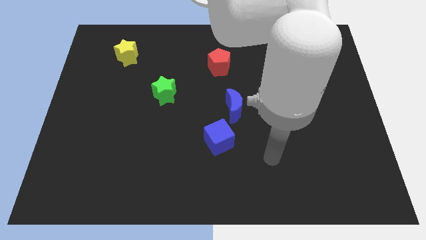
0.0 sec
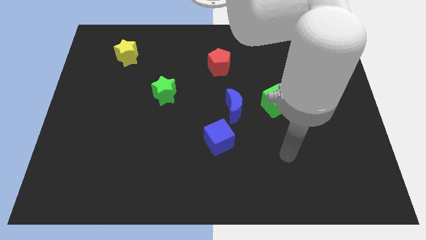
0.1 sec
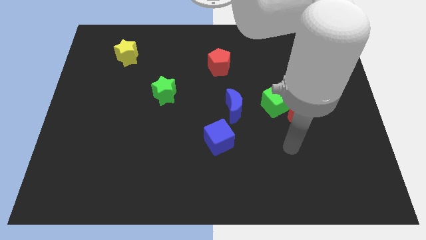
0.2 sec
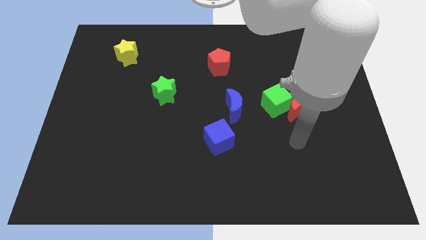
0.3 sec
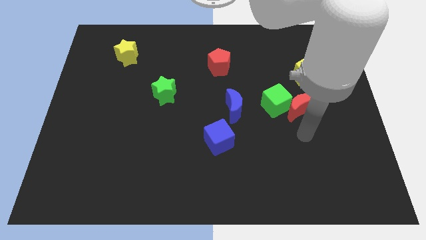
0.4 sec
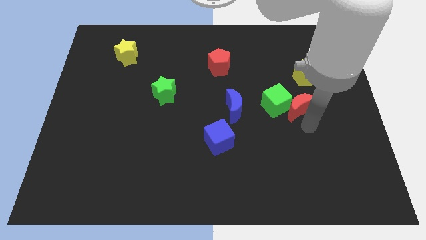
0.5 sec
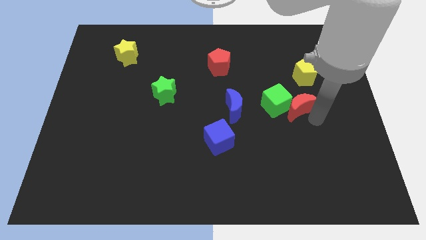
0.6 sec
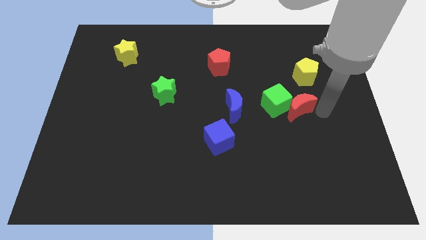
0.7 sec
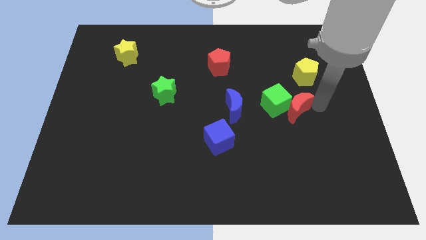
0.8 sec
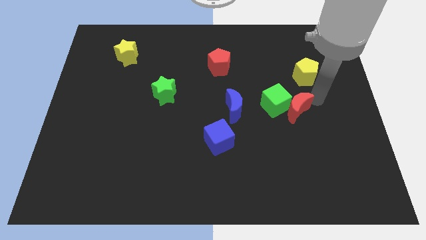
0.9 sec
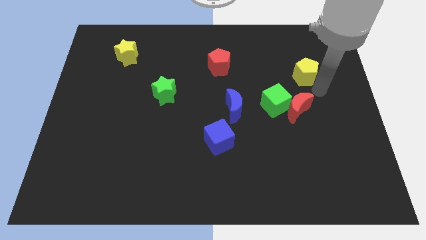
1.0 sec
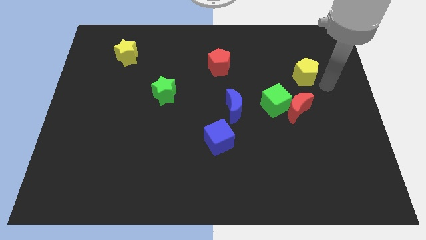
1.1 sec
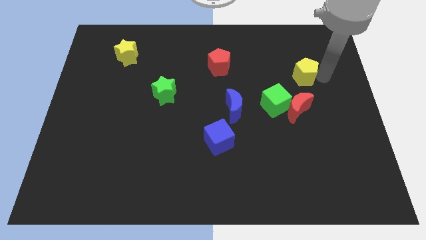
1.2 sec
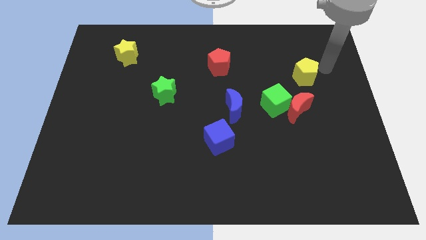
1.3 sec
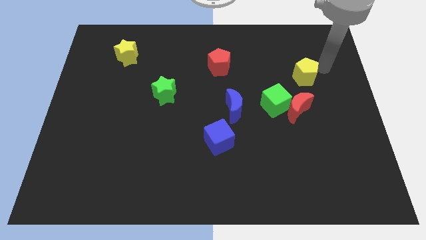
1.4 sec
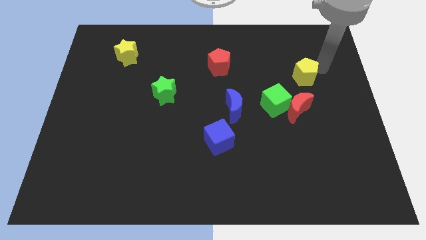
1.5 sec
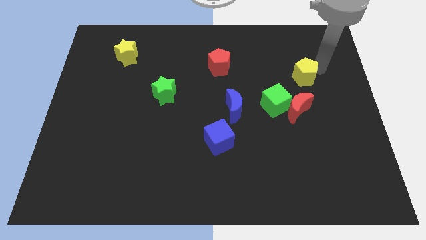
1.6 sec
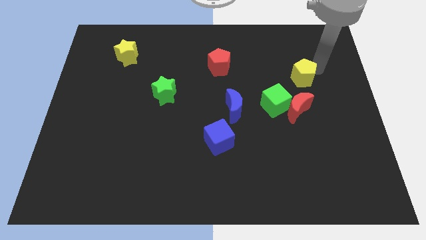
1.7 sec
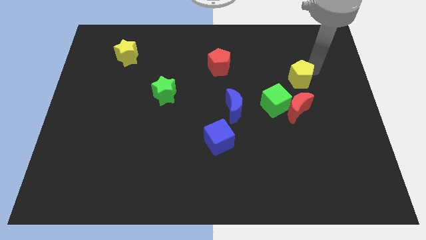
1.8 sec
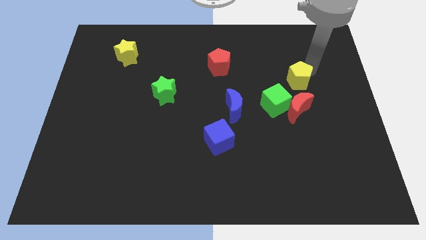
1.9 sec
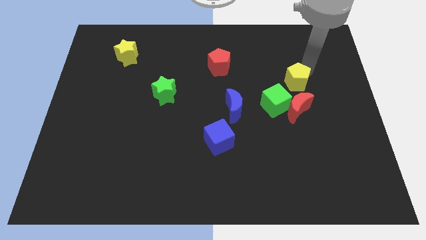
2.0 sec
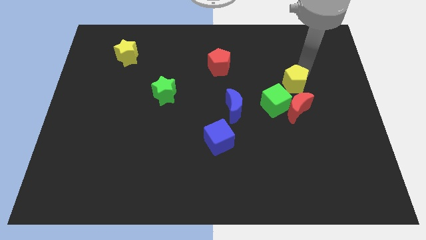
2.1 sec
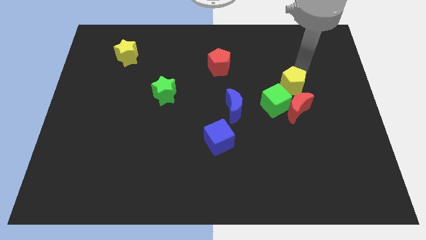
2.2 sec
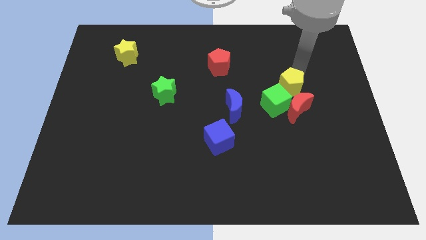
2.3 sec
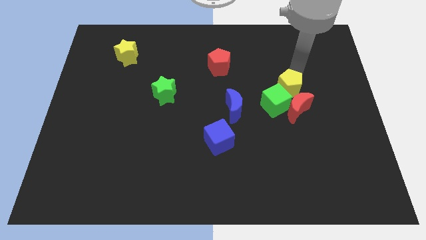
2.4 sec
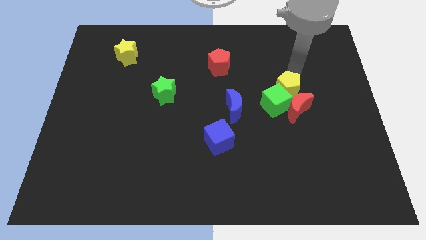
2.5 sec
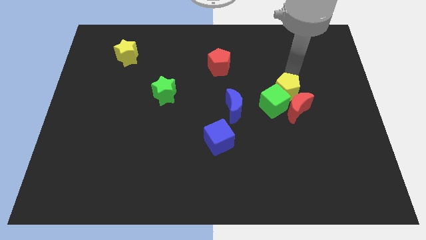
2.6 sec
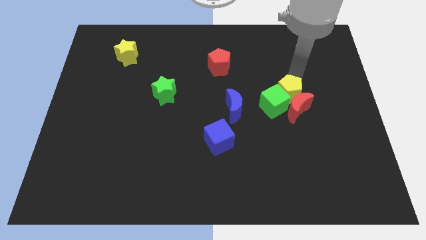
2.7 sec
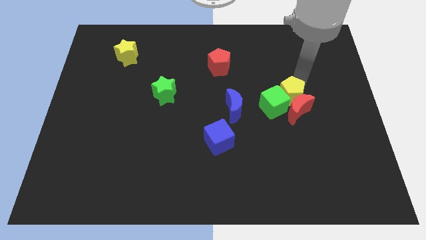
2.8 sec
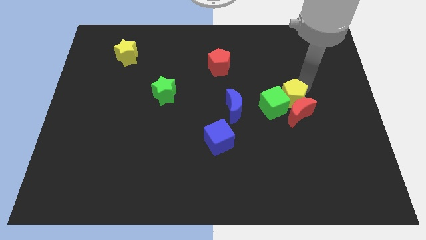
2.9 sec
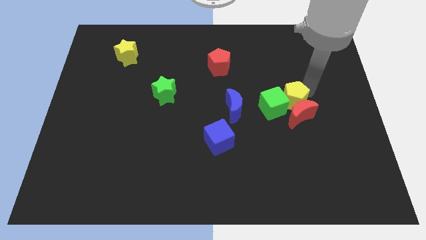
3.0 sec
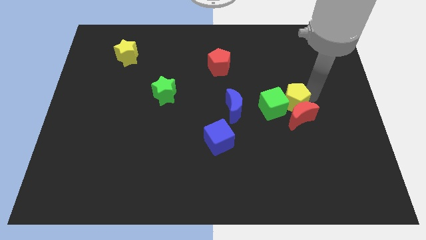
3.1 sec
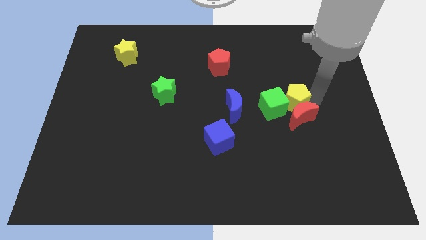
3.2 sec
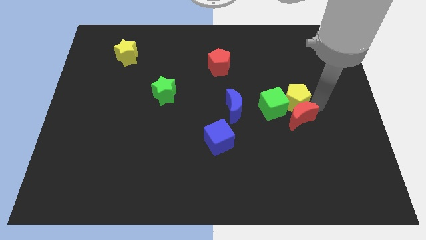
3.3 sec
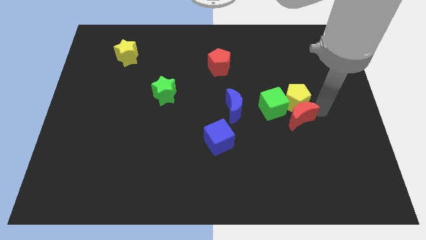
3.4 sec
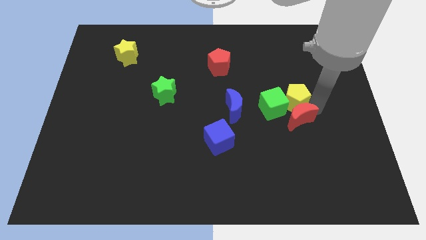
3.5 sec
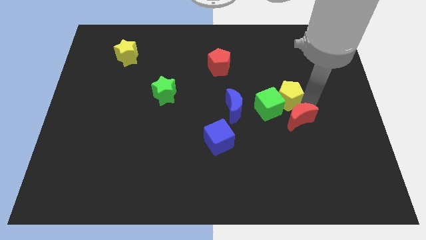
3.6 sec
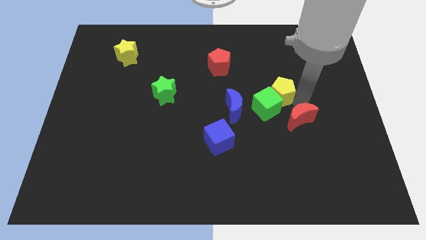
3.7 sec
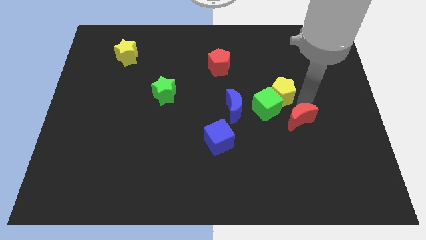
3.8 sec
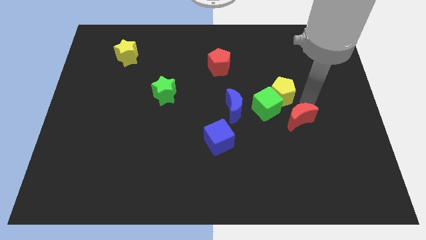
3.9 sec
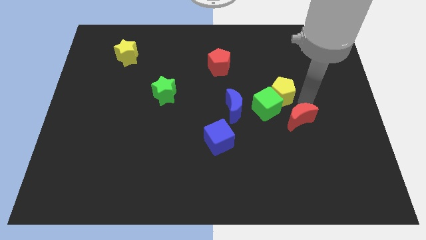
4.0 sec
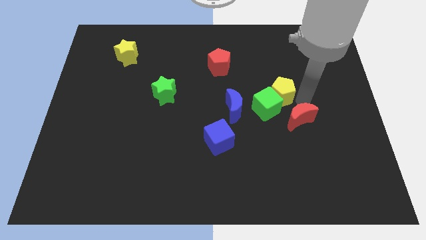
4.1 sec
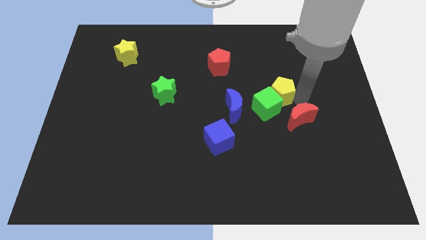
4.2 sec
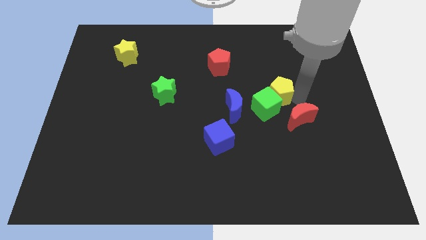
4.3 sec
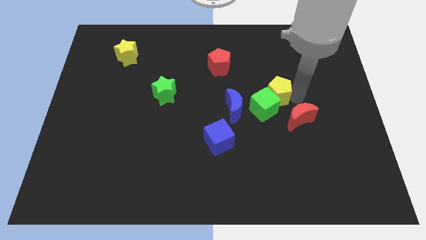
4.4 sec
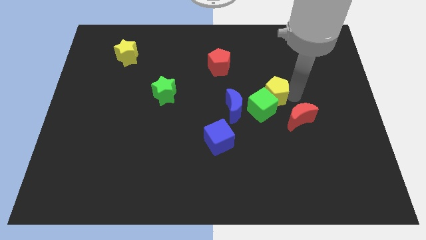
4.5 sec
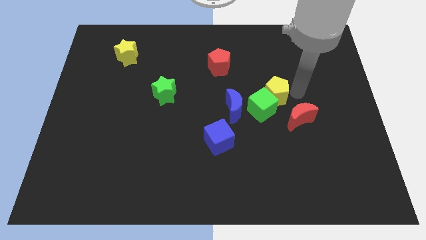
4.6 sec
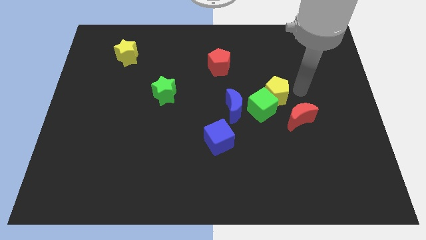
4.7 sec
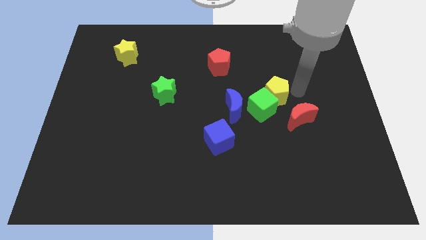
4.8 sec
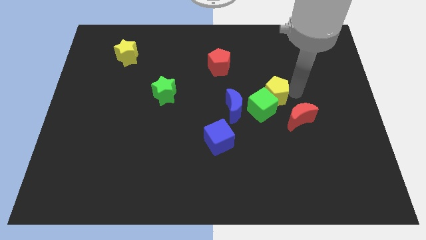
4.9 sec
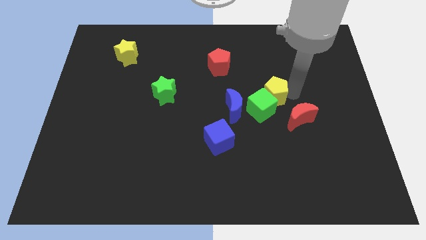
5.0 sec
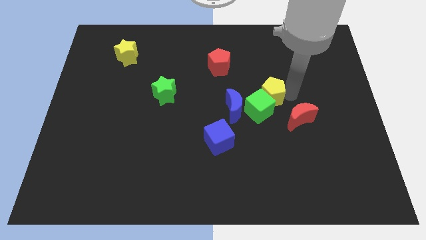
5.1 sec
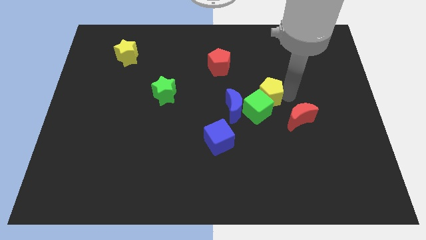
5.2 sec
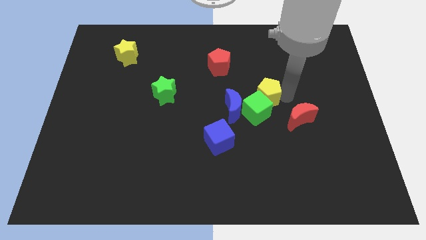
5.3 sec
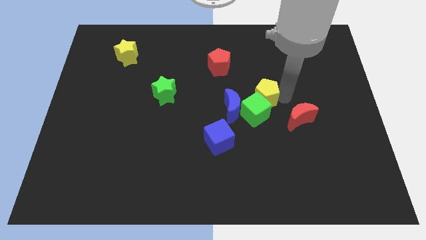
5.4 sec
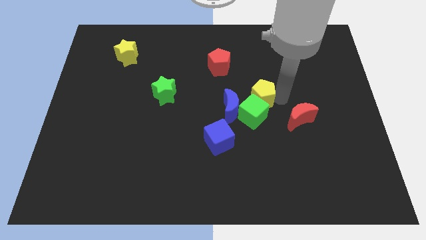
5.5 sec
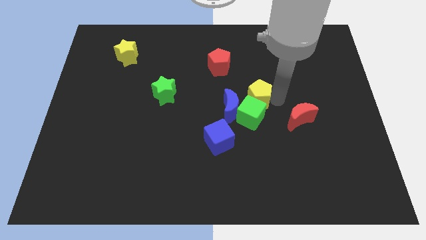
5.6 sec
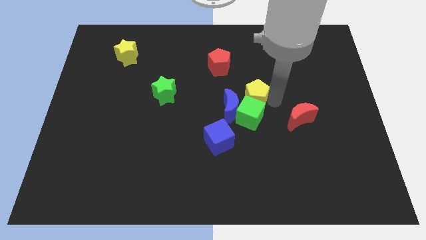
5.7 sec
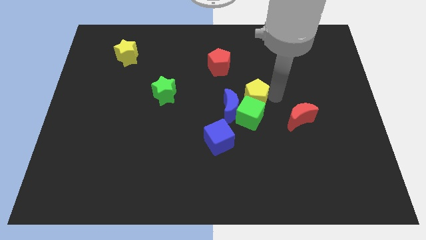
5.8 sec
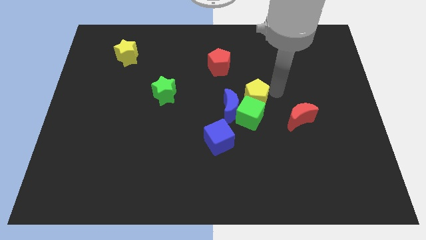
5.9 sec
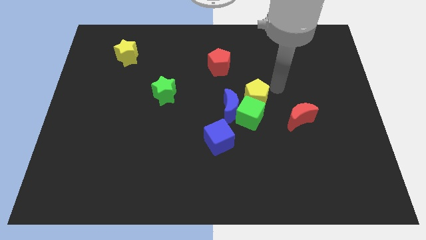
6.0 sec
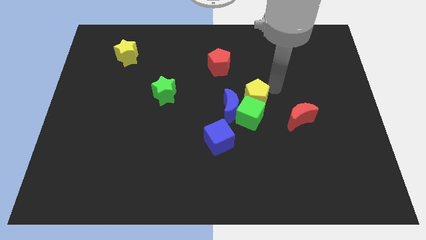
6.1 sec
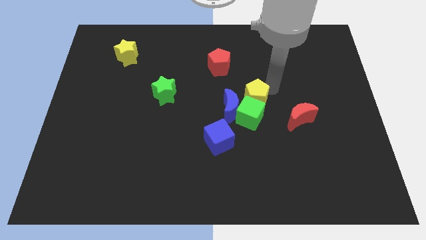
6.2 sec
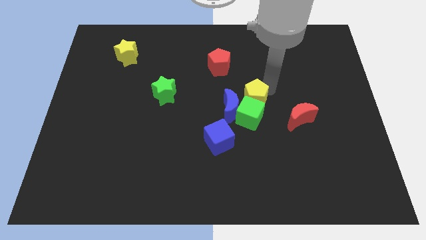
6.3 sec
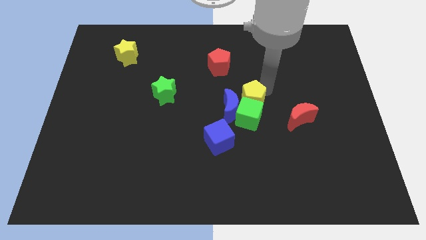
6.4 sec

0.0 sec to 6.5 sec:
push the yellow pentagon towards the blue moon

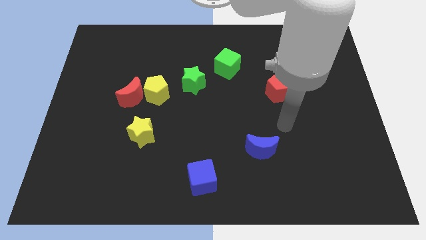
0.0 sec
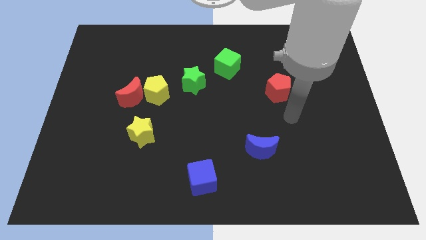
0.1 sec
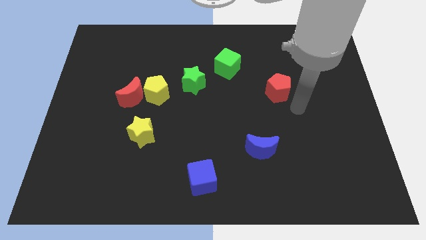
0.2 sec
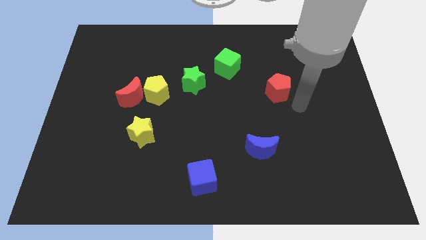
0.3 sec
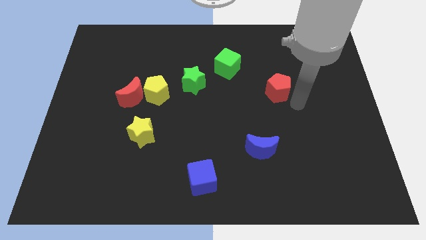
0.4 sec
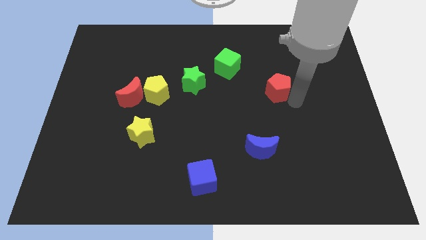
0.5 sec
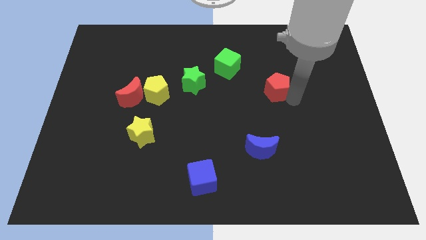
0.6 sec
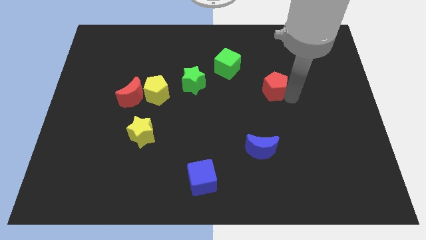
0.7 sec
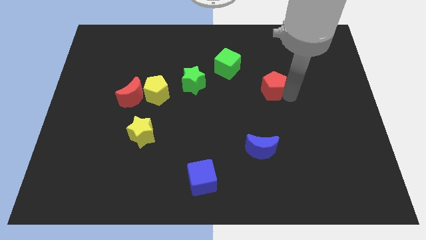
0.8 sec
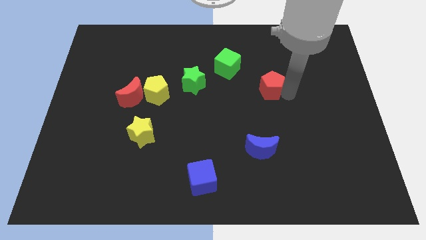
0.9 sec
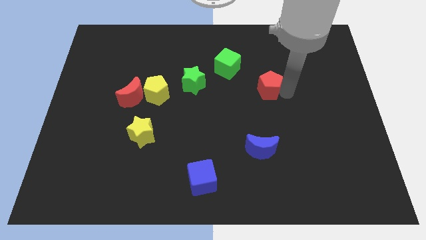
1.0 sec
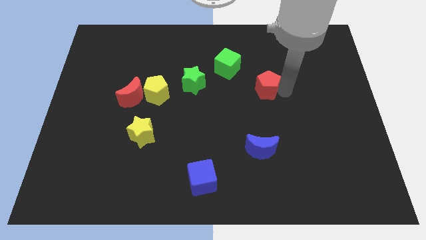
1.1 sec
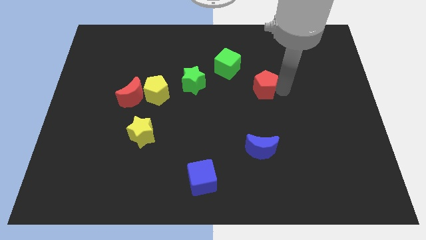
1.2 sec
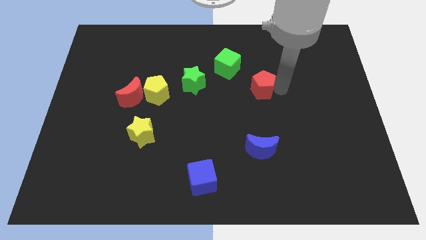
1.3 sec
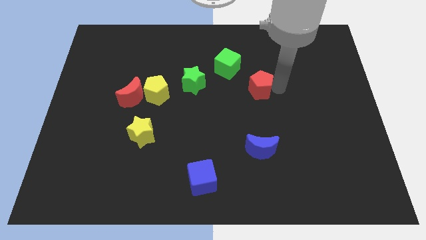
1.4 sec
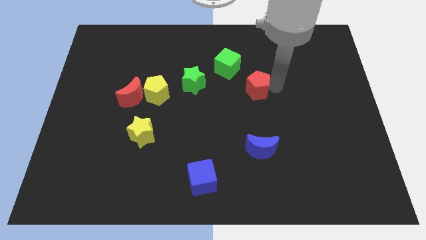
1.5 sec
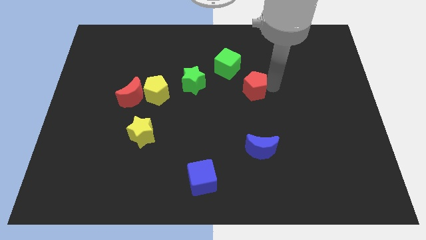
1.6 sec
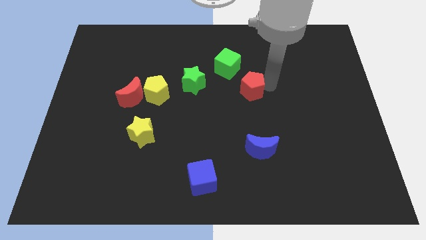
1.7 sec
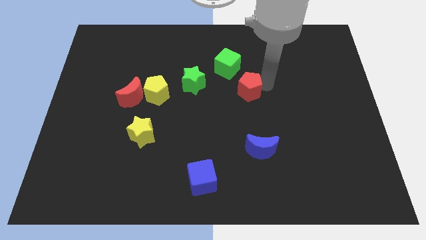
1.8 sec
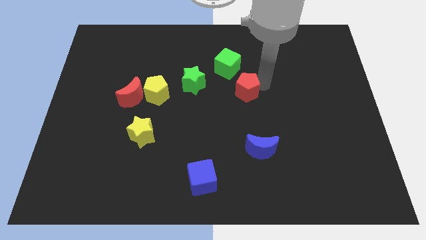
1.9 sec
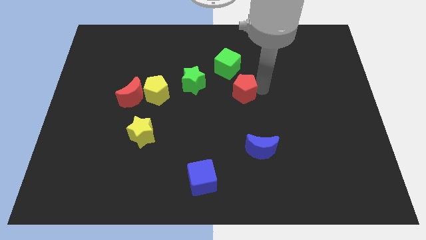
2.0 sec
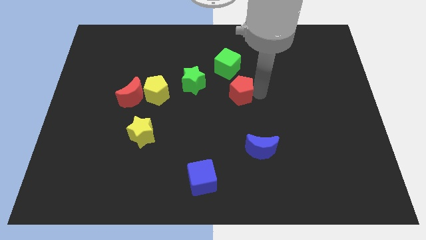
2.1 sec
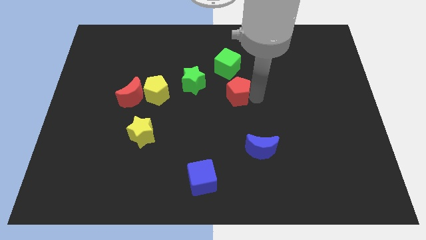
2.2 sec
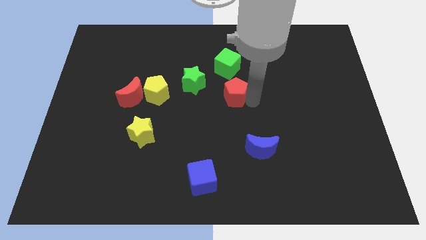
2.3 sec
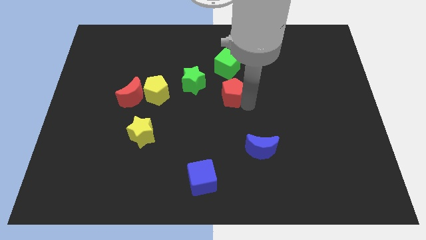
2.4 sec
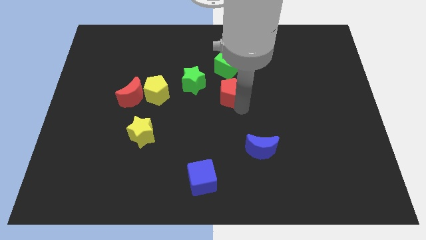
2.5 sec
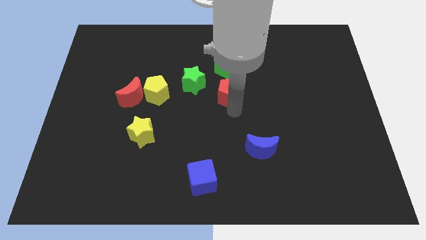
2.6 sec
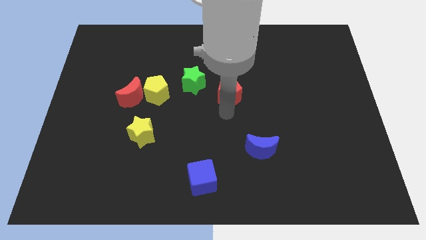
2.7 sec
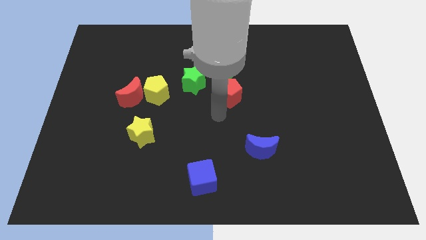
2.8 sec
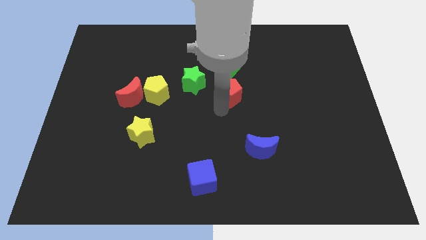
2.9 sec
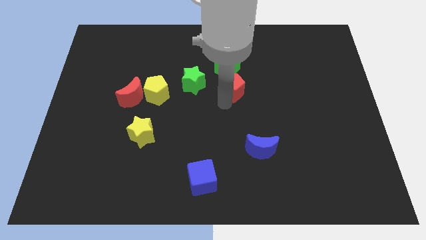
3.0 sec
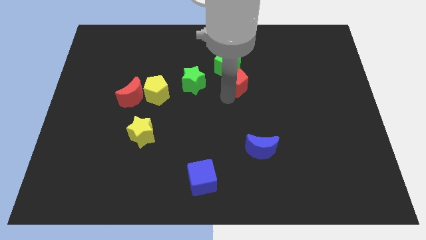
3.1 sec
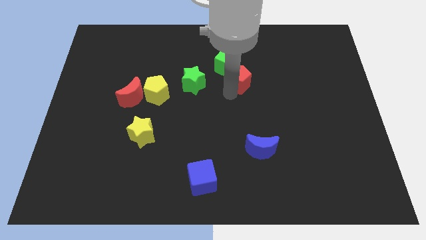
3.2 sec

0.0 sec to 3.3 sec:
put the red pentagon to the green cube
